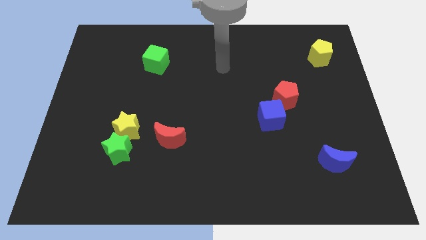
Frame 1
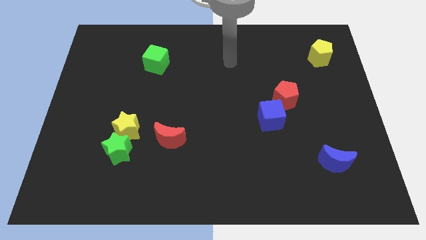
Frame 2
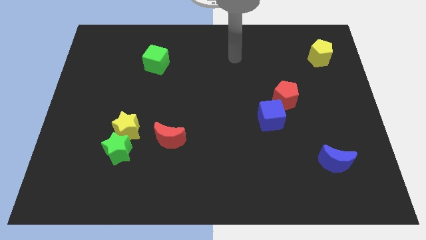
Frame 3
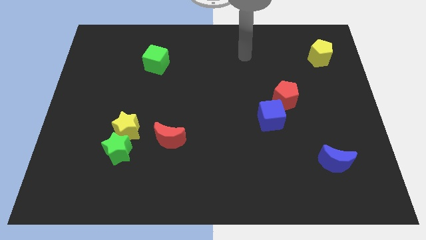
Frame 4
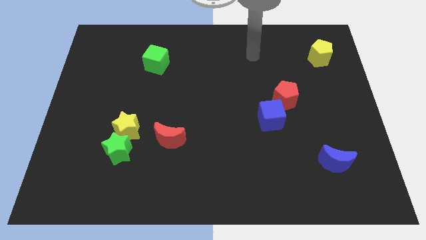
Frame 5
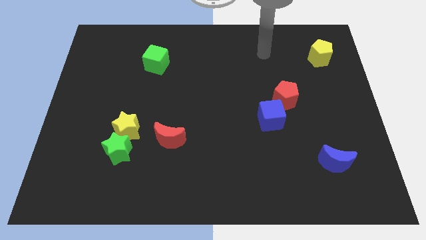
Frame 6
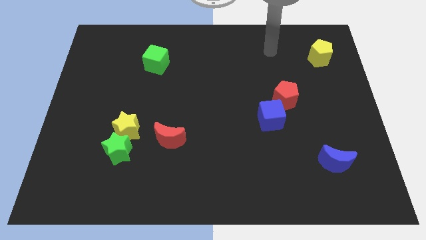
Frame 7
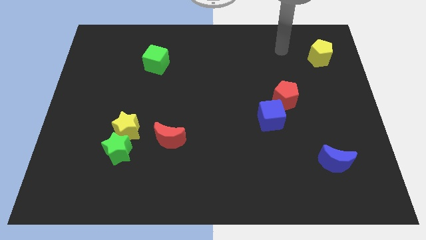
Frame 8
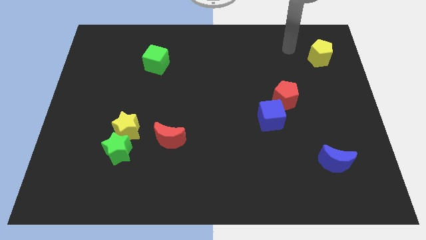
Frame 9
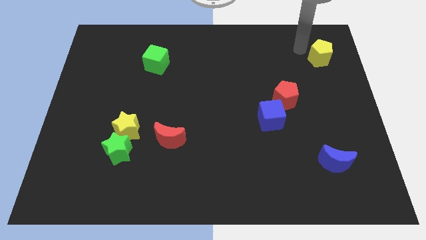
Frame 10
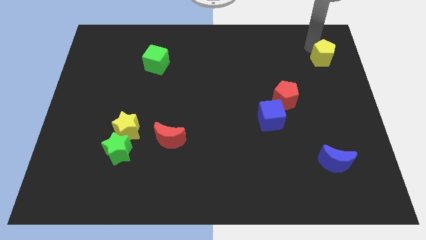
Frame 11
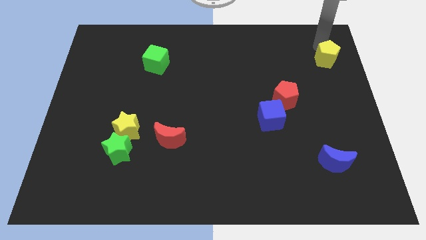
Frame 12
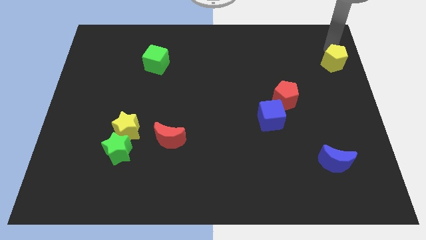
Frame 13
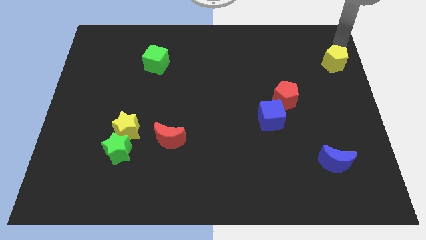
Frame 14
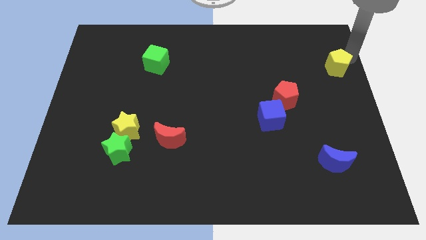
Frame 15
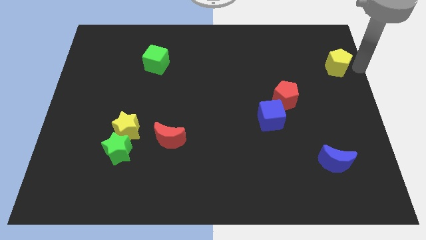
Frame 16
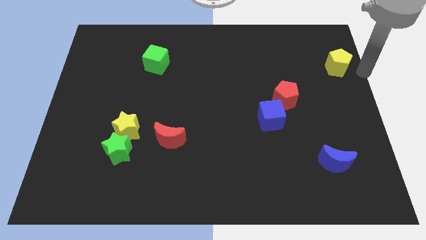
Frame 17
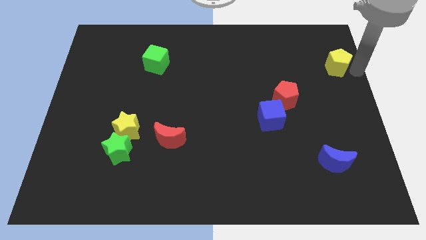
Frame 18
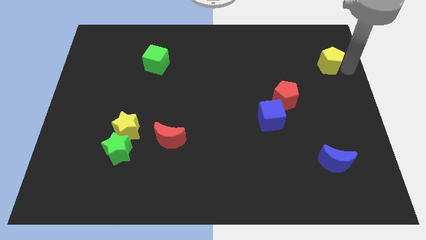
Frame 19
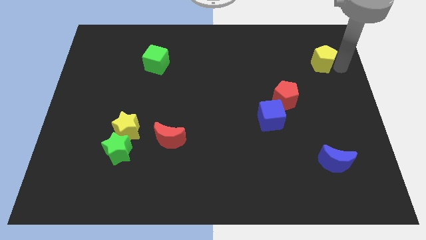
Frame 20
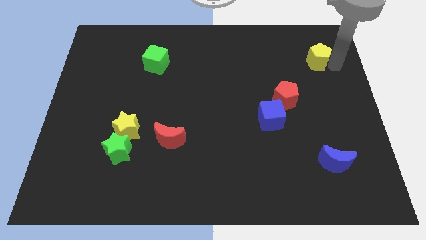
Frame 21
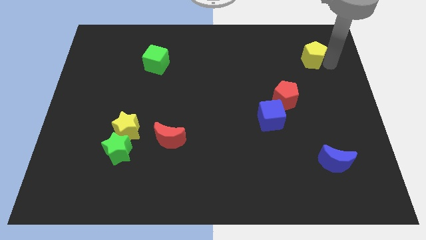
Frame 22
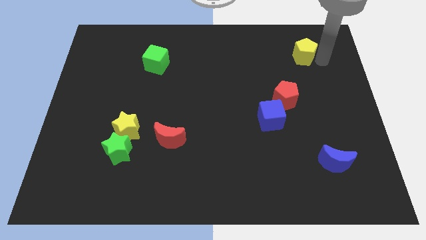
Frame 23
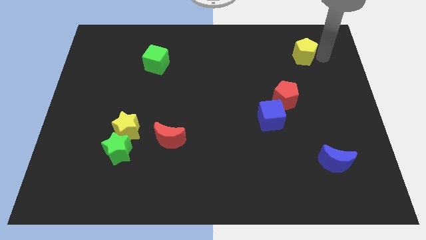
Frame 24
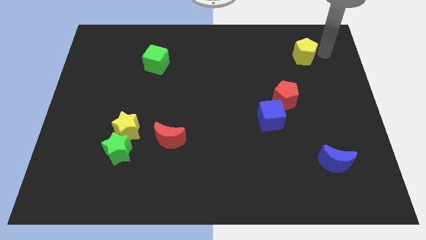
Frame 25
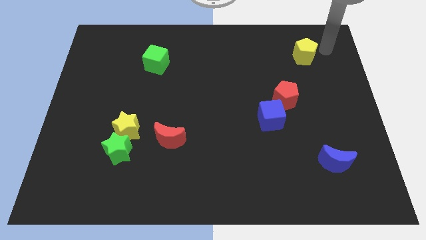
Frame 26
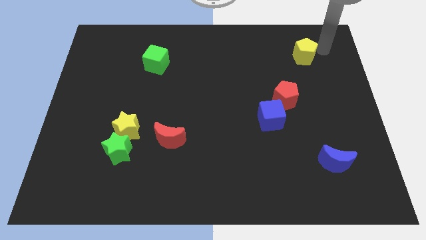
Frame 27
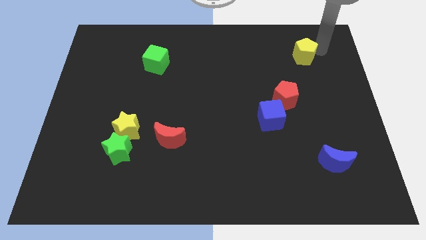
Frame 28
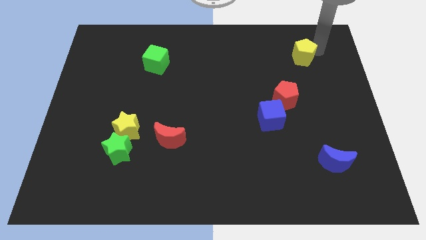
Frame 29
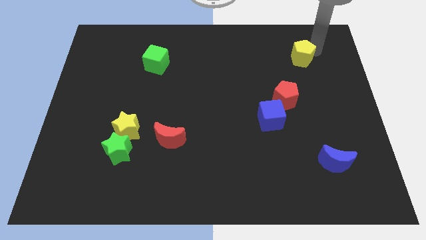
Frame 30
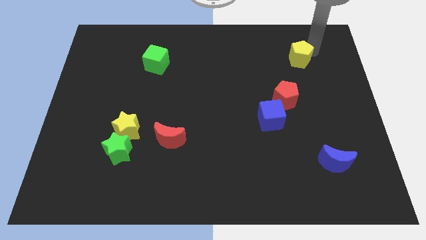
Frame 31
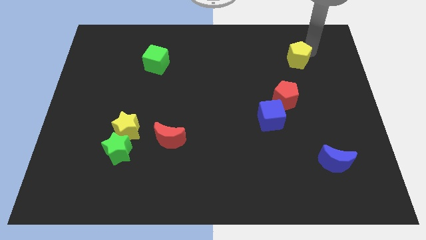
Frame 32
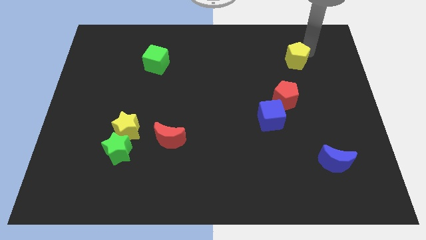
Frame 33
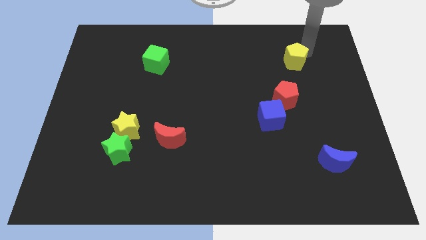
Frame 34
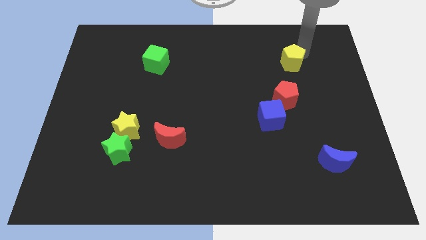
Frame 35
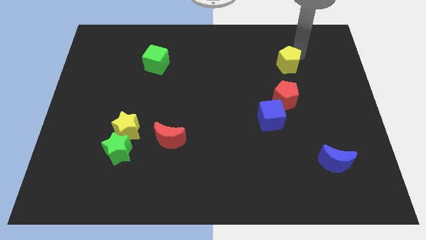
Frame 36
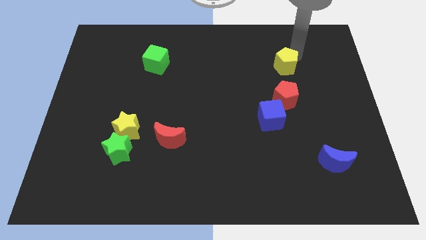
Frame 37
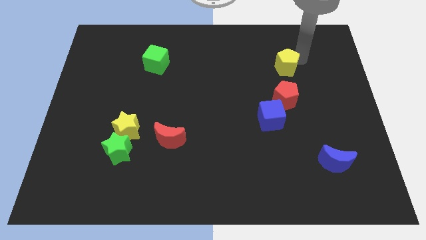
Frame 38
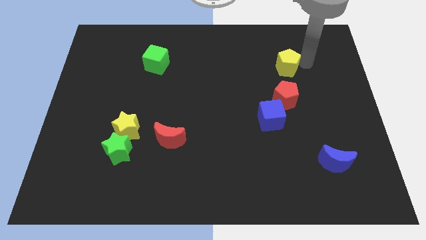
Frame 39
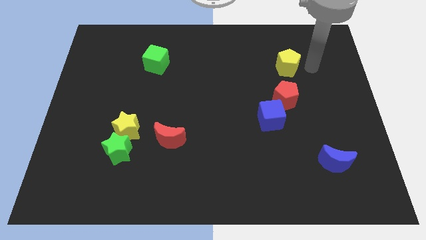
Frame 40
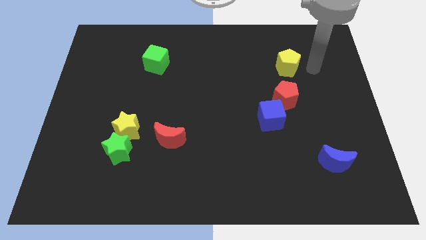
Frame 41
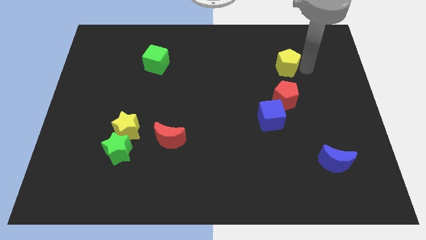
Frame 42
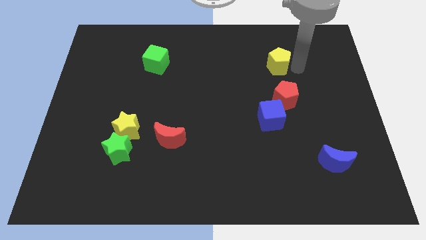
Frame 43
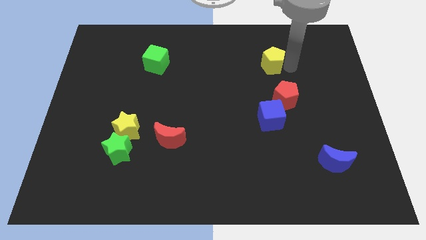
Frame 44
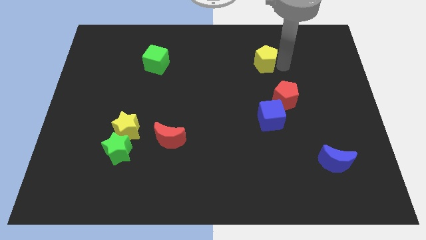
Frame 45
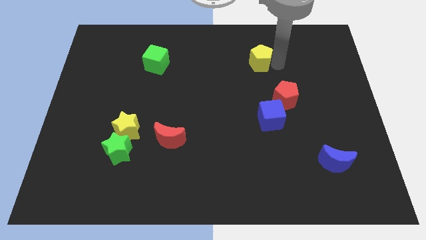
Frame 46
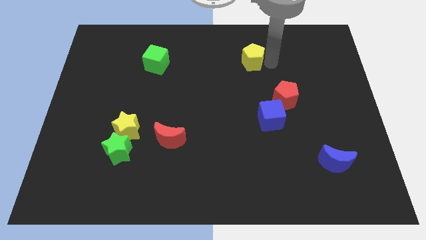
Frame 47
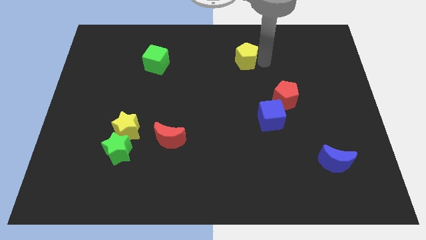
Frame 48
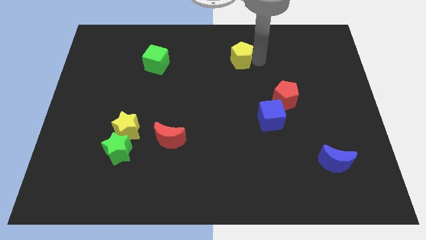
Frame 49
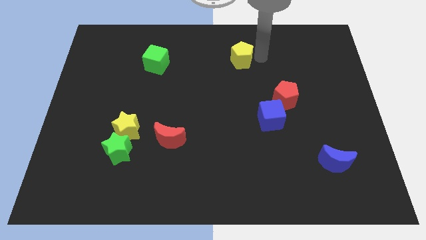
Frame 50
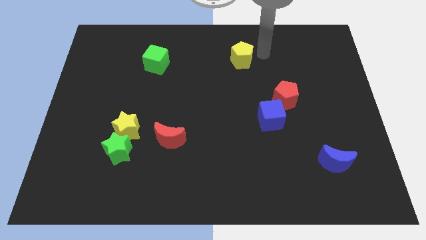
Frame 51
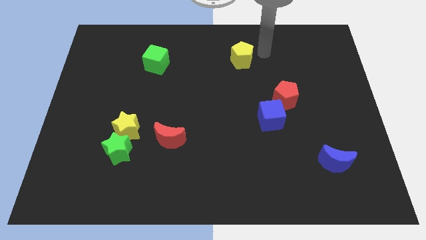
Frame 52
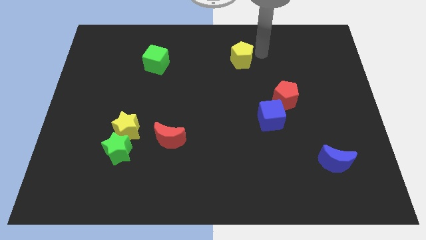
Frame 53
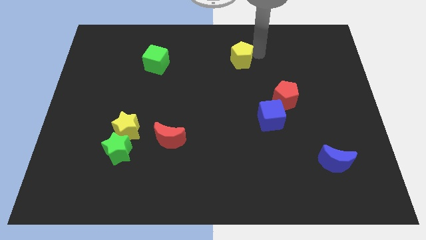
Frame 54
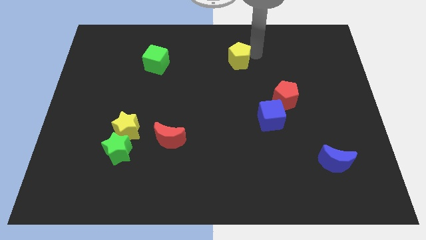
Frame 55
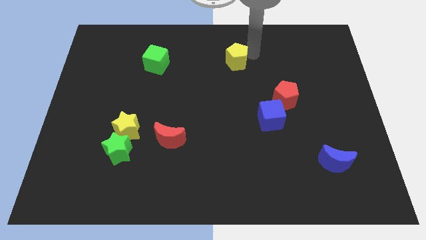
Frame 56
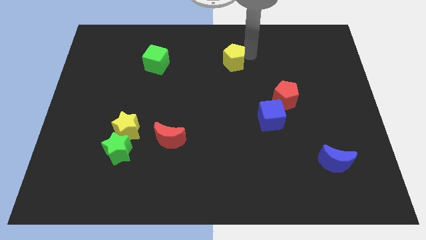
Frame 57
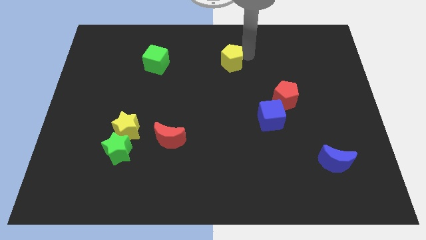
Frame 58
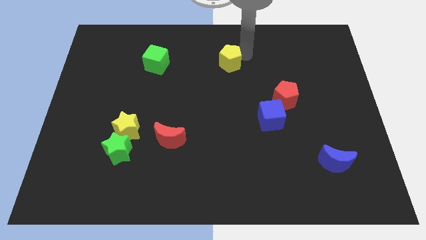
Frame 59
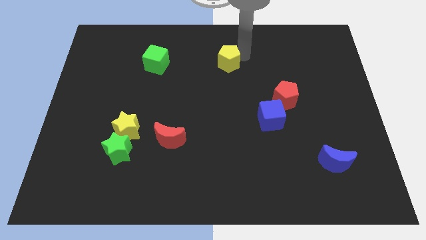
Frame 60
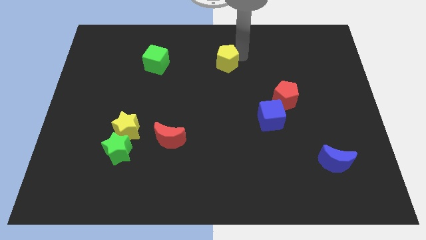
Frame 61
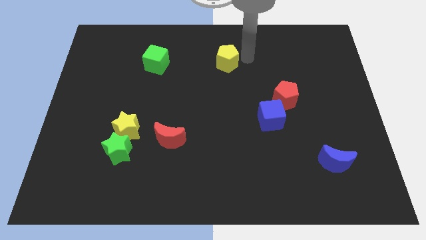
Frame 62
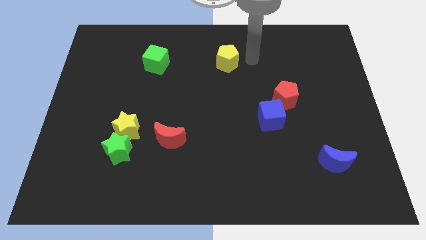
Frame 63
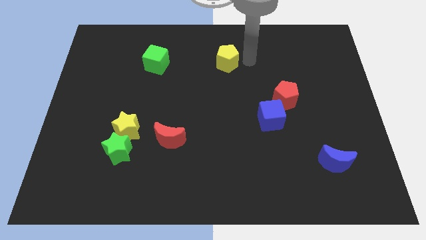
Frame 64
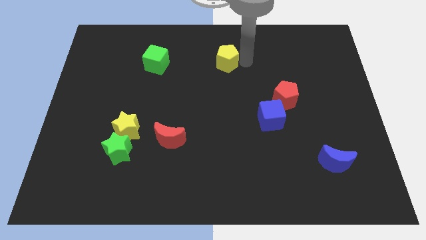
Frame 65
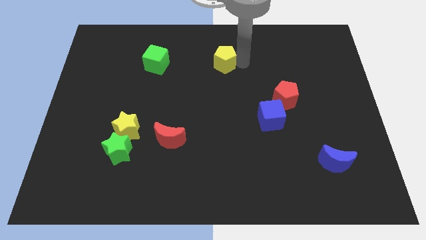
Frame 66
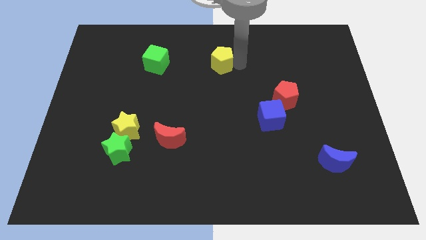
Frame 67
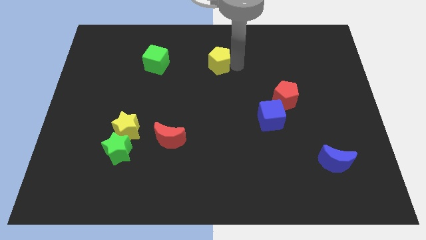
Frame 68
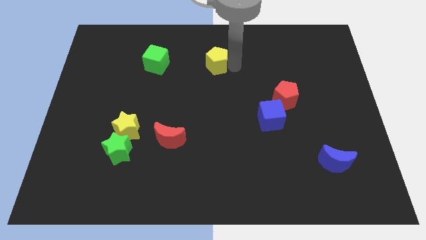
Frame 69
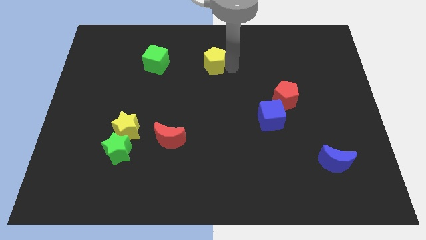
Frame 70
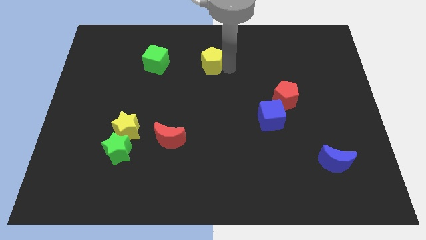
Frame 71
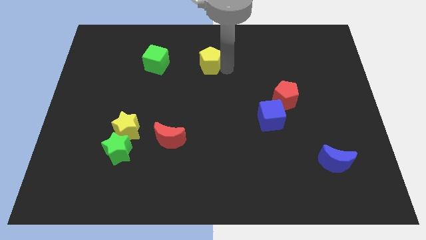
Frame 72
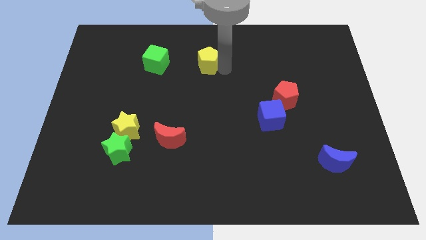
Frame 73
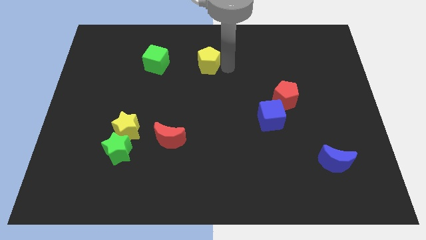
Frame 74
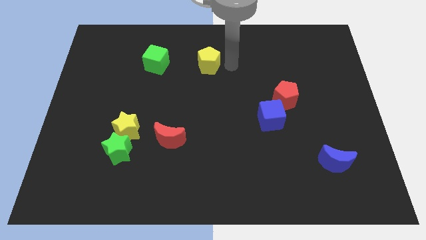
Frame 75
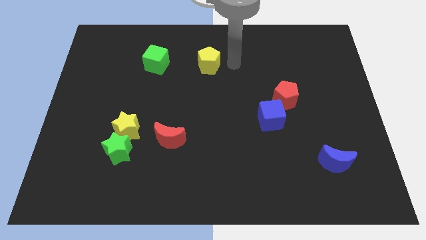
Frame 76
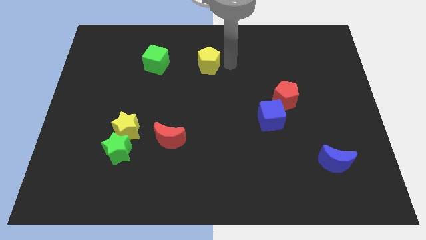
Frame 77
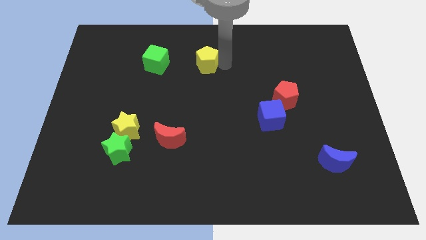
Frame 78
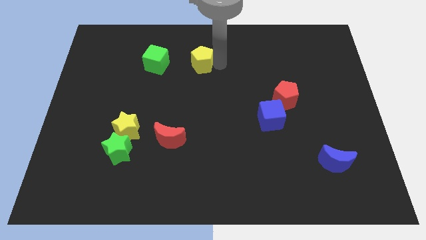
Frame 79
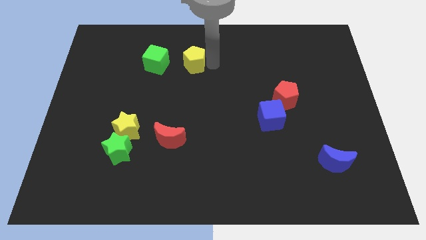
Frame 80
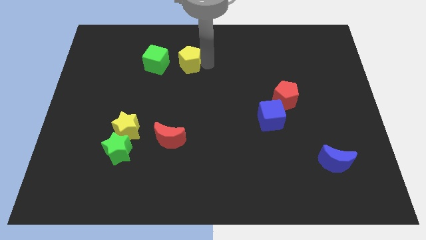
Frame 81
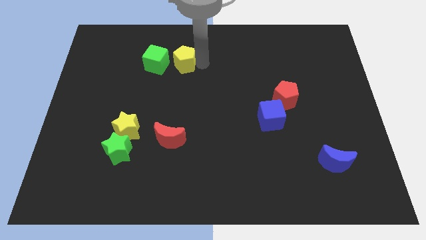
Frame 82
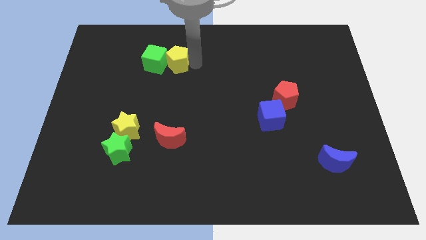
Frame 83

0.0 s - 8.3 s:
push the yellow pentagon next to the green cube
